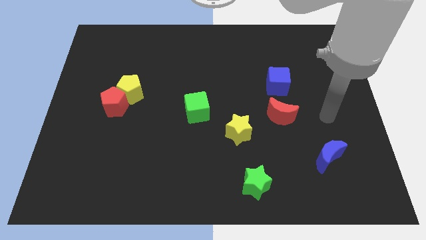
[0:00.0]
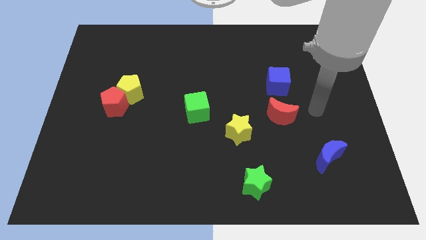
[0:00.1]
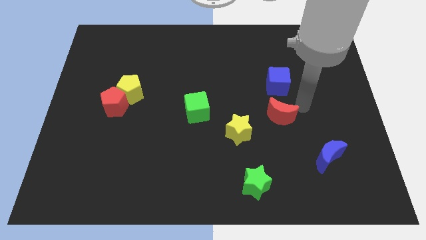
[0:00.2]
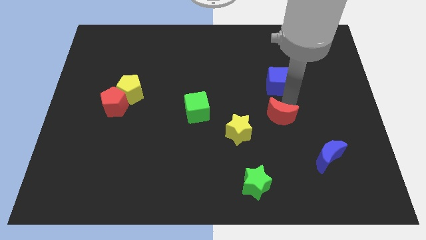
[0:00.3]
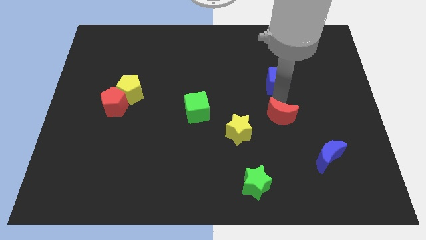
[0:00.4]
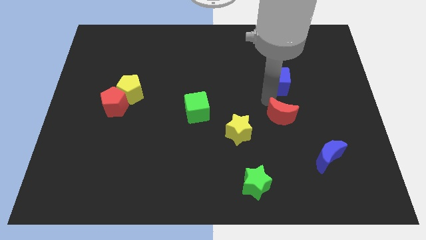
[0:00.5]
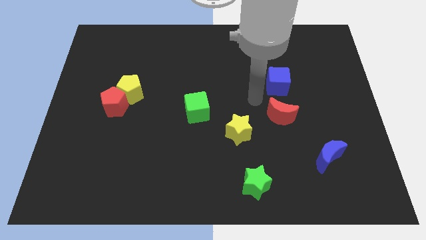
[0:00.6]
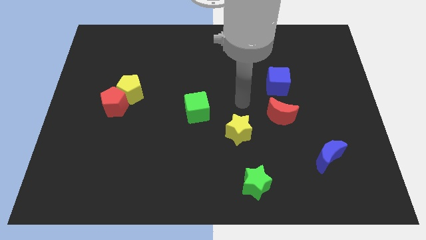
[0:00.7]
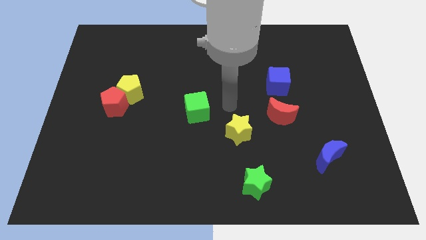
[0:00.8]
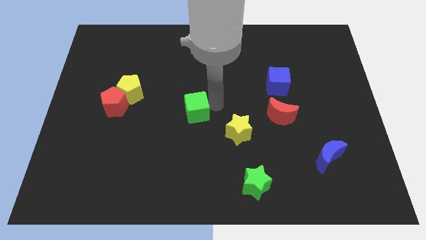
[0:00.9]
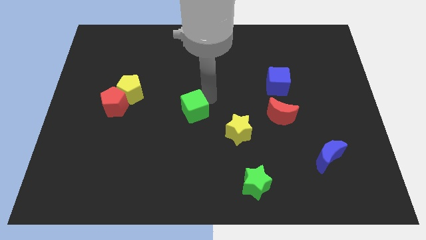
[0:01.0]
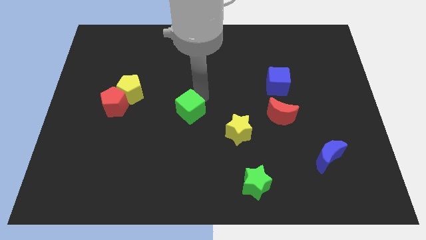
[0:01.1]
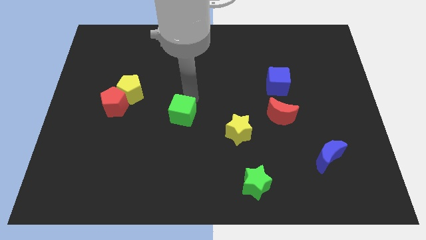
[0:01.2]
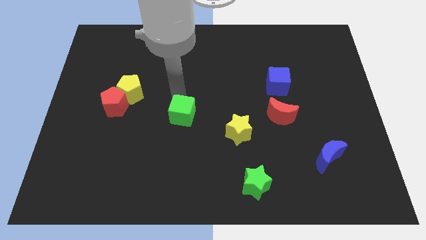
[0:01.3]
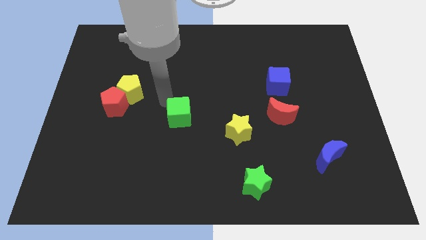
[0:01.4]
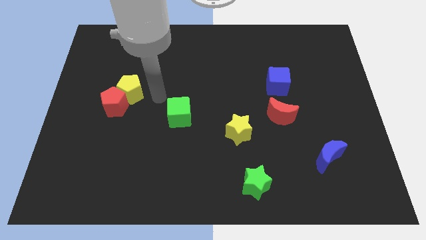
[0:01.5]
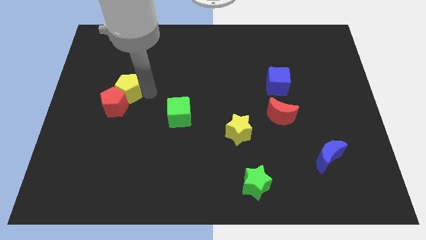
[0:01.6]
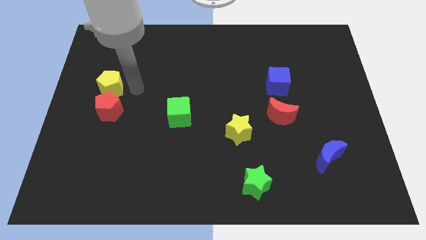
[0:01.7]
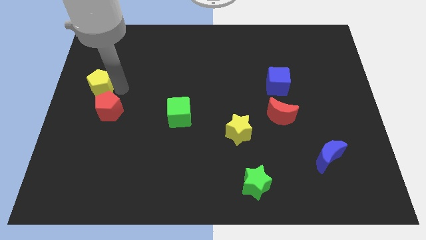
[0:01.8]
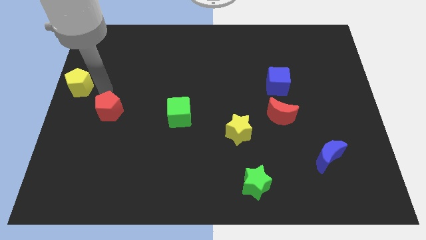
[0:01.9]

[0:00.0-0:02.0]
pull the red pentagon apart from the yellow pentagon

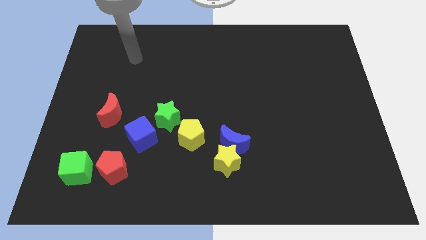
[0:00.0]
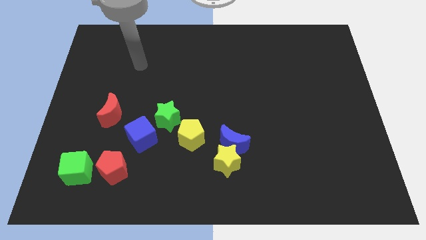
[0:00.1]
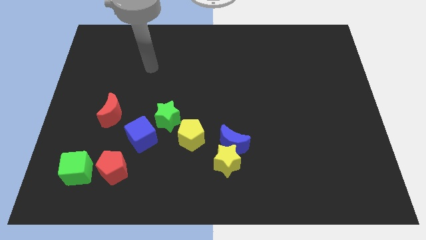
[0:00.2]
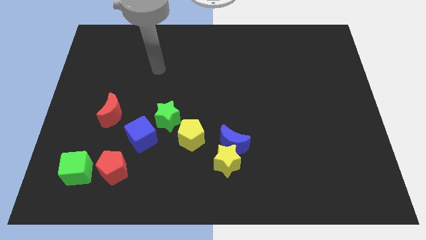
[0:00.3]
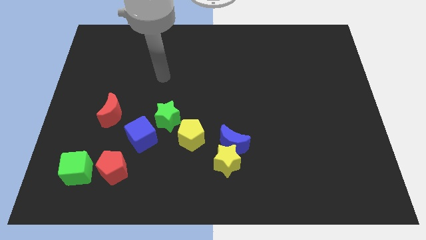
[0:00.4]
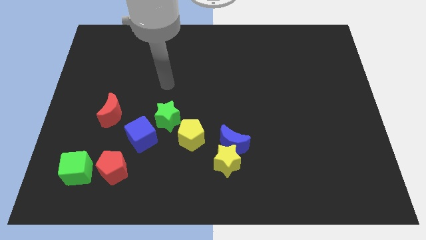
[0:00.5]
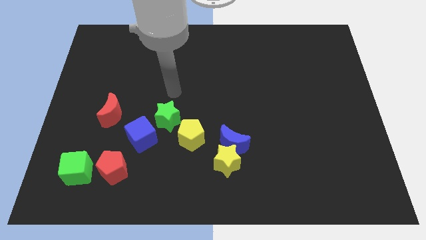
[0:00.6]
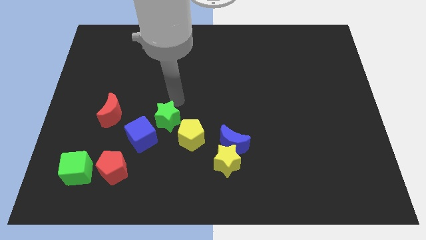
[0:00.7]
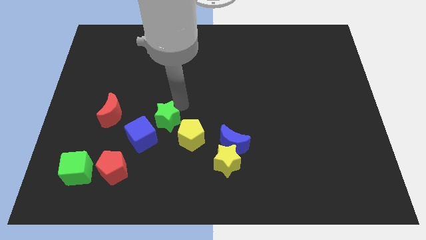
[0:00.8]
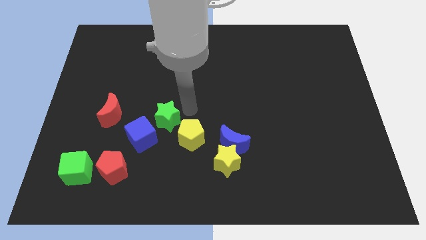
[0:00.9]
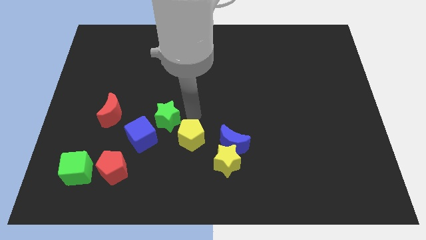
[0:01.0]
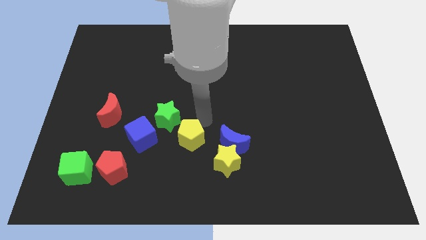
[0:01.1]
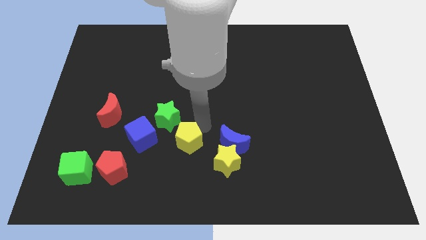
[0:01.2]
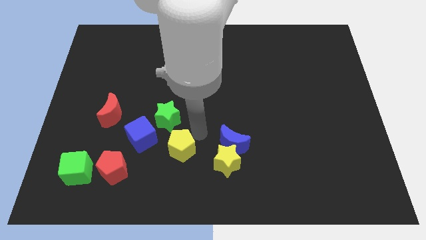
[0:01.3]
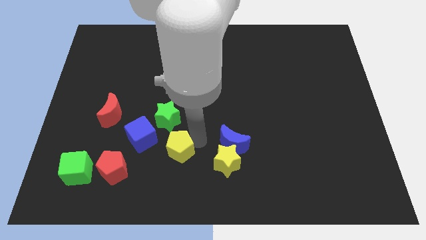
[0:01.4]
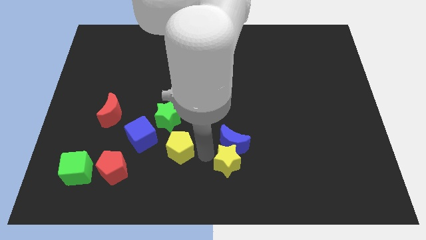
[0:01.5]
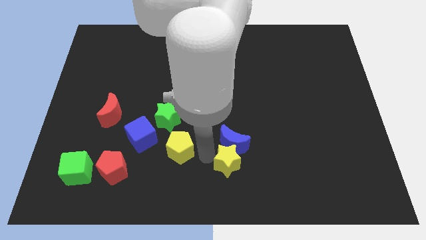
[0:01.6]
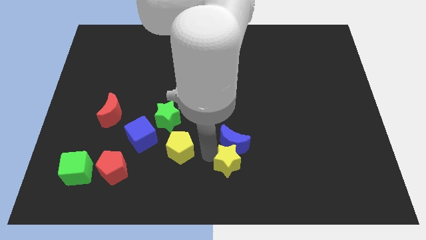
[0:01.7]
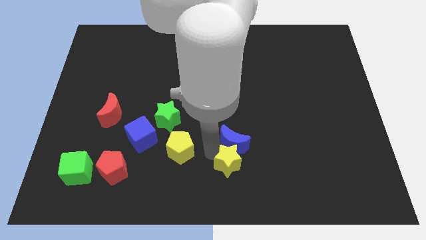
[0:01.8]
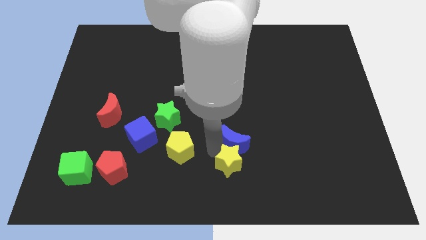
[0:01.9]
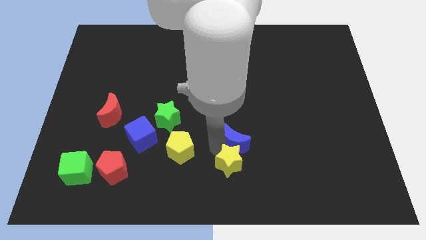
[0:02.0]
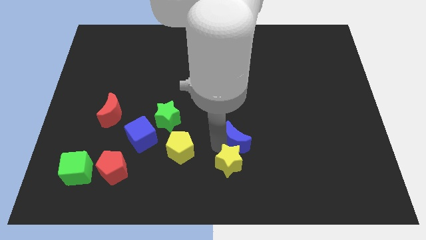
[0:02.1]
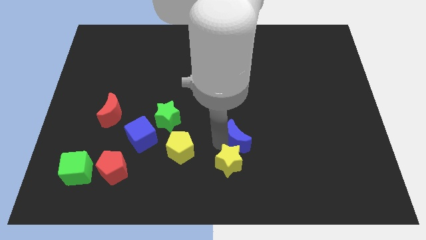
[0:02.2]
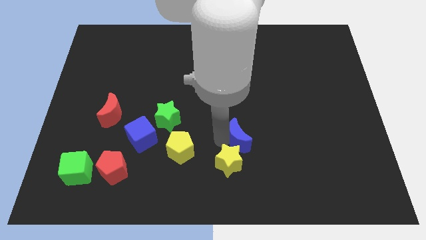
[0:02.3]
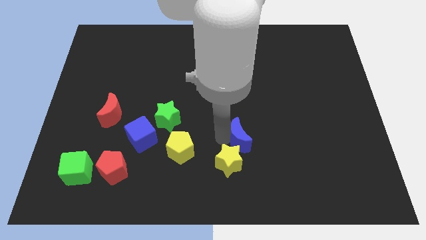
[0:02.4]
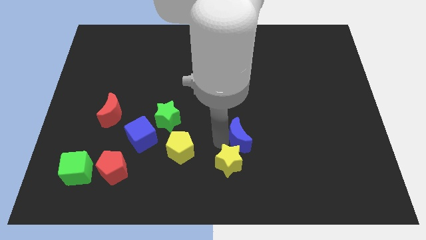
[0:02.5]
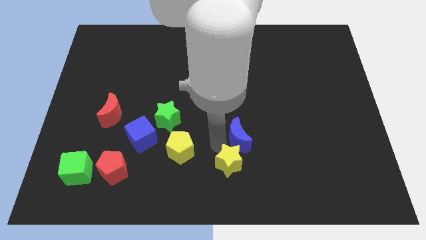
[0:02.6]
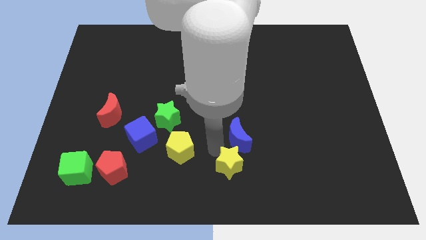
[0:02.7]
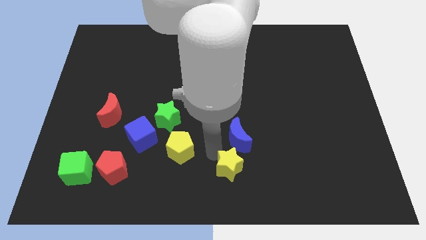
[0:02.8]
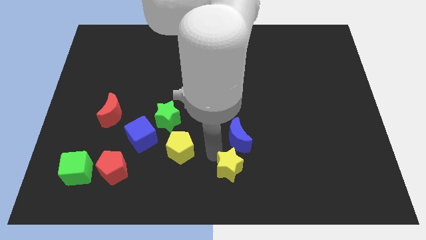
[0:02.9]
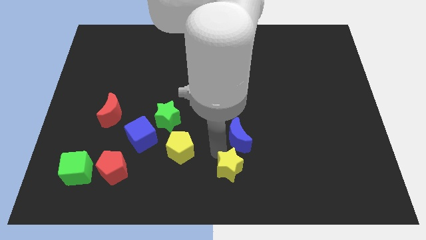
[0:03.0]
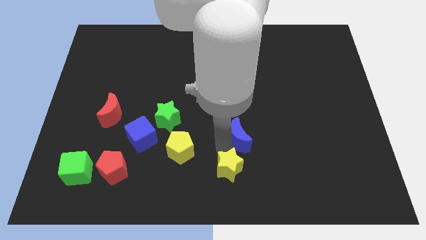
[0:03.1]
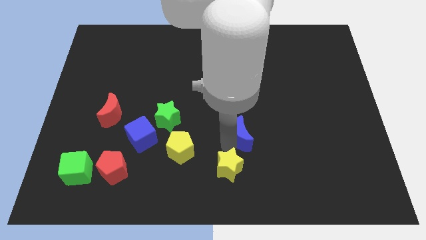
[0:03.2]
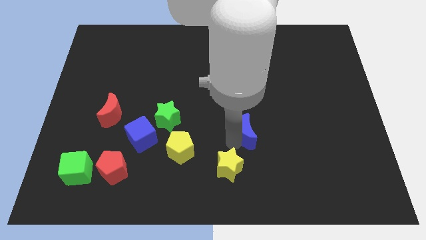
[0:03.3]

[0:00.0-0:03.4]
move the blue moon away from the yellow star and yellow pentagon

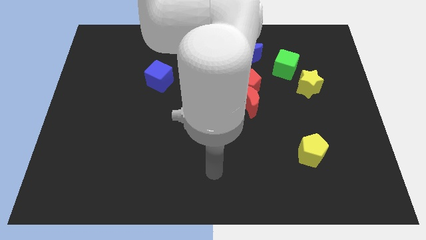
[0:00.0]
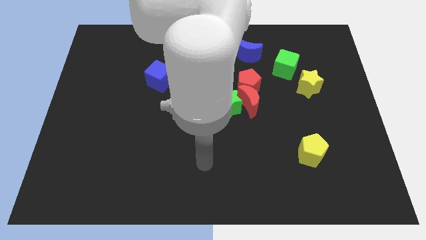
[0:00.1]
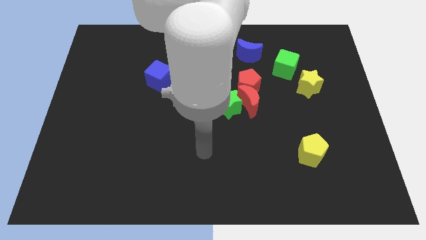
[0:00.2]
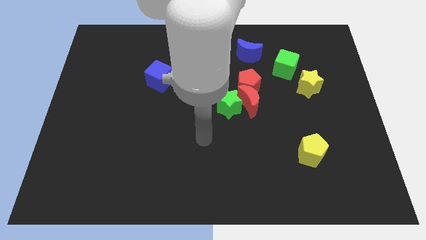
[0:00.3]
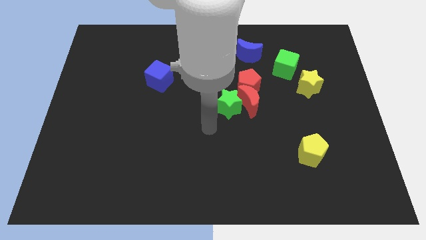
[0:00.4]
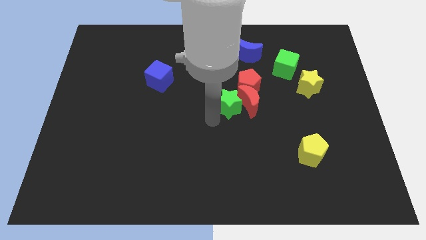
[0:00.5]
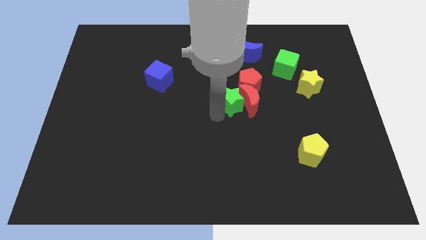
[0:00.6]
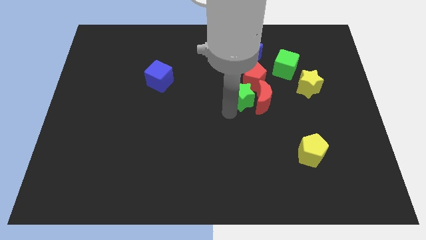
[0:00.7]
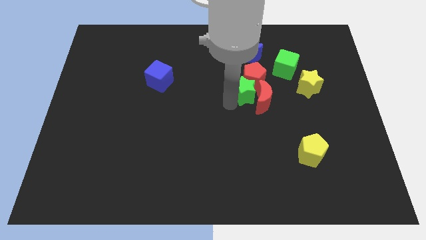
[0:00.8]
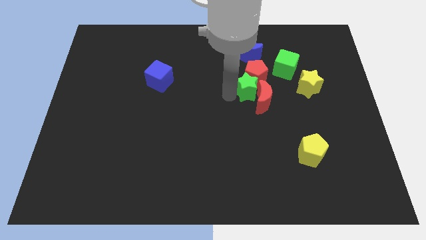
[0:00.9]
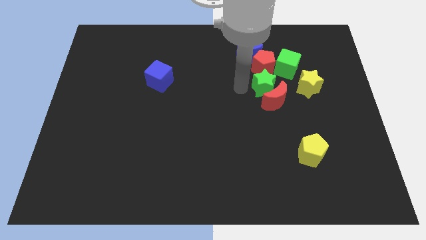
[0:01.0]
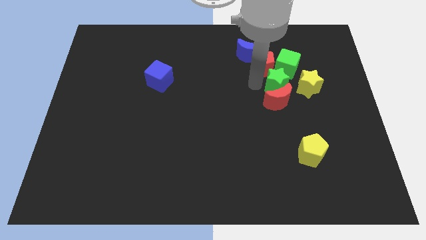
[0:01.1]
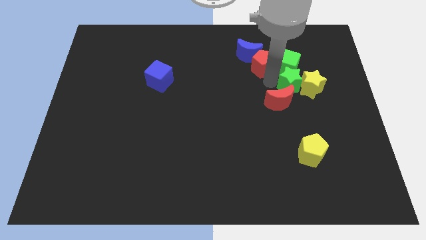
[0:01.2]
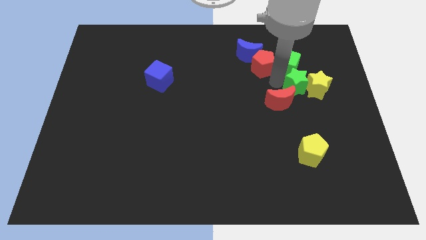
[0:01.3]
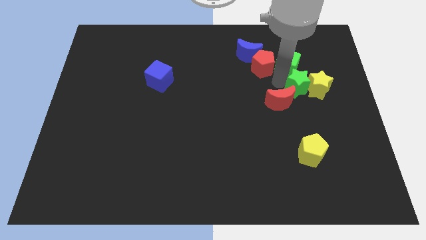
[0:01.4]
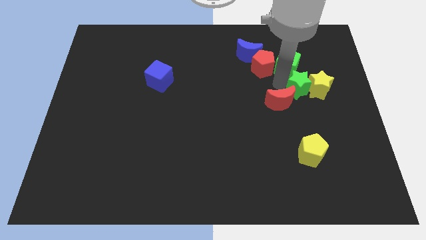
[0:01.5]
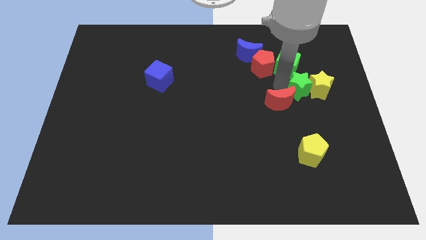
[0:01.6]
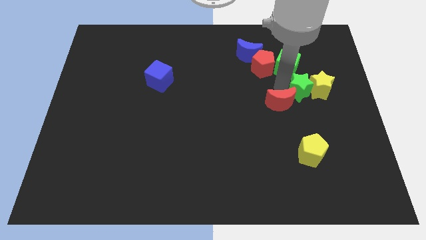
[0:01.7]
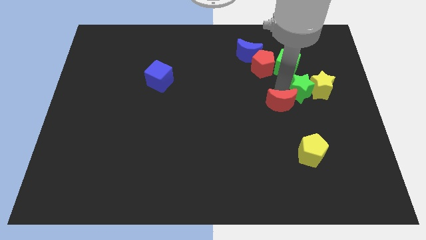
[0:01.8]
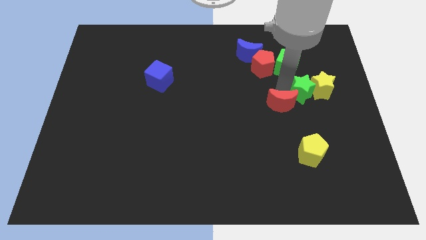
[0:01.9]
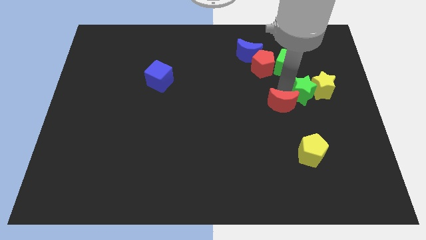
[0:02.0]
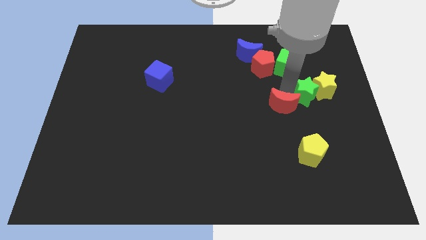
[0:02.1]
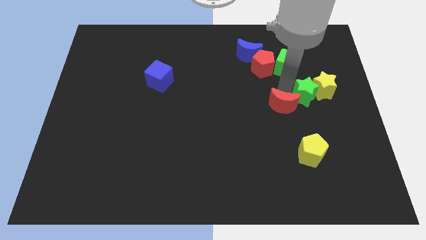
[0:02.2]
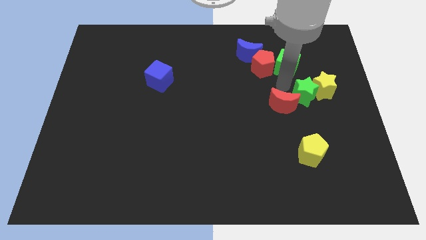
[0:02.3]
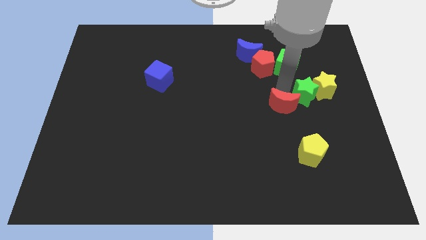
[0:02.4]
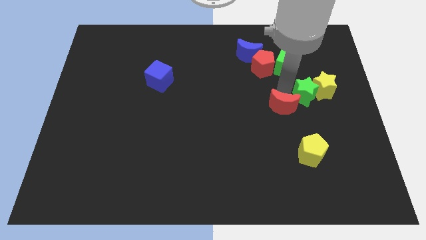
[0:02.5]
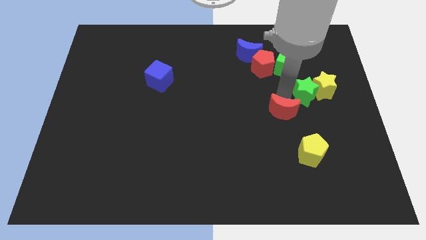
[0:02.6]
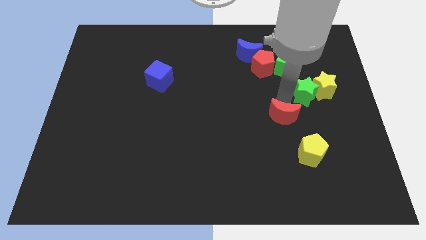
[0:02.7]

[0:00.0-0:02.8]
move the red moon away from the green star and red pentagon

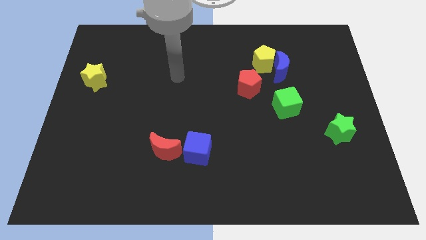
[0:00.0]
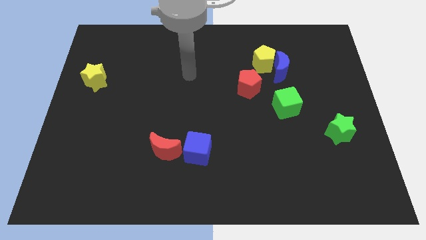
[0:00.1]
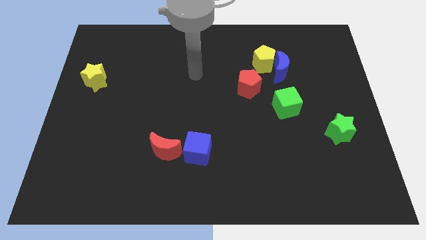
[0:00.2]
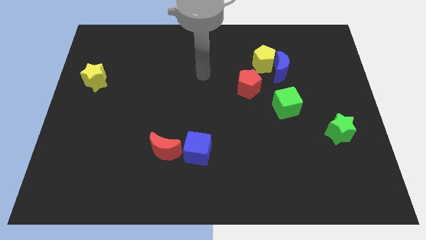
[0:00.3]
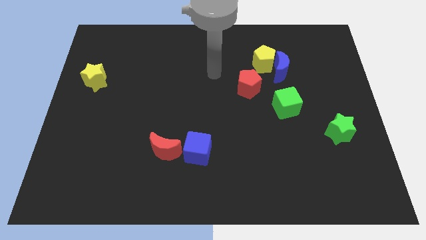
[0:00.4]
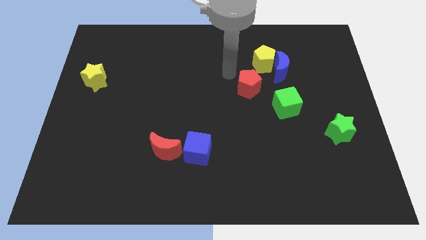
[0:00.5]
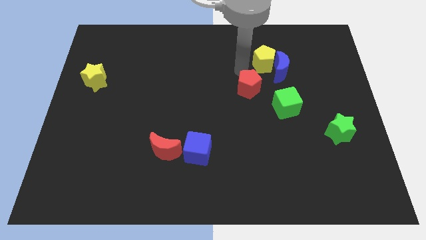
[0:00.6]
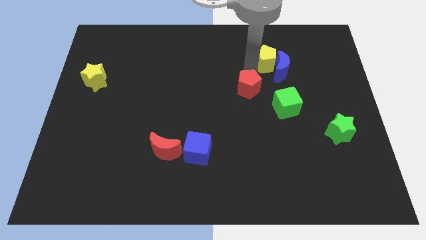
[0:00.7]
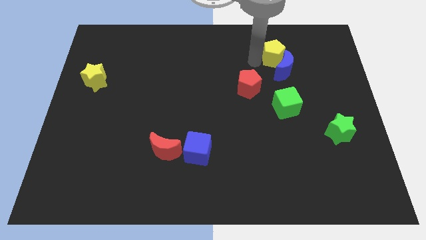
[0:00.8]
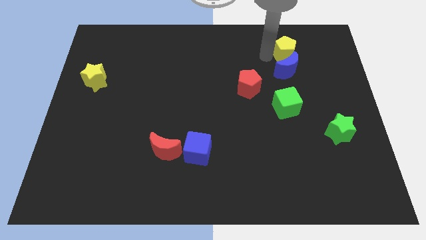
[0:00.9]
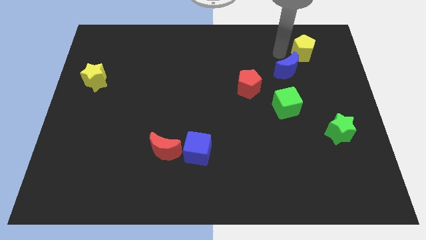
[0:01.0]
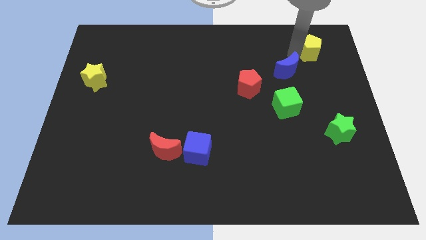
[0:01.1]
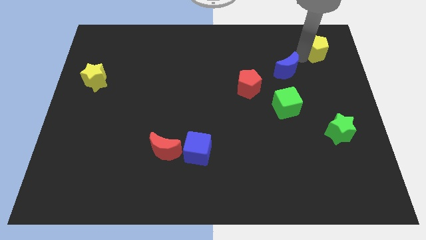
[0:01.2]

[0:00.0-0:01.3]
pull the blue moon apart from the yellow pentagon
